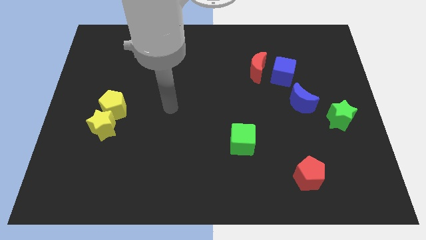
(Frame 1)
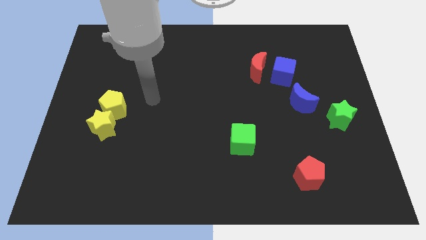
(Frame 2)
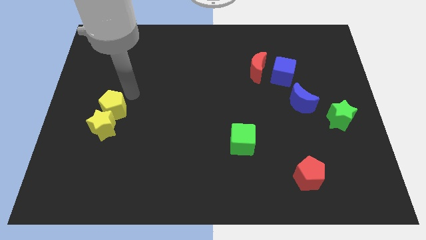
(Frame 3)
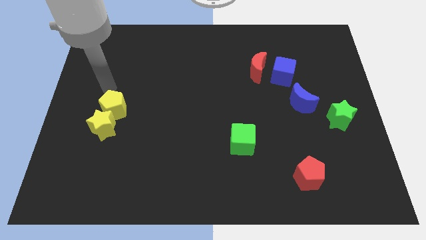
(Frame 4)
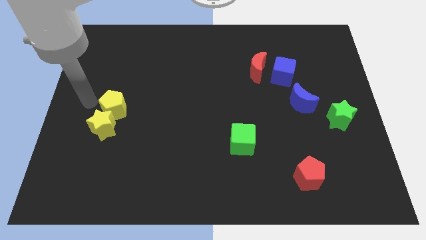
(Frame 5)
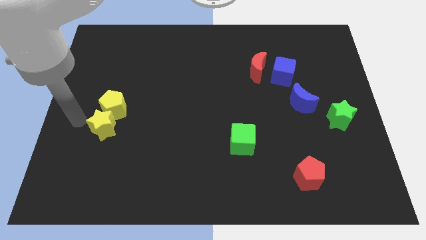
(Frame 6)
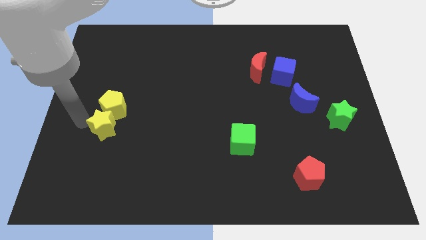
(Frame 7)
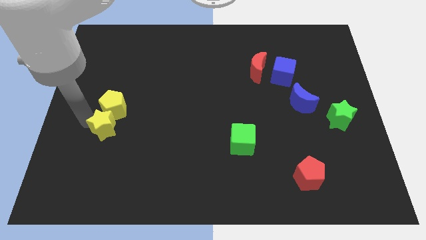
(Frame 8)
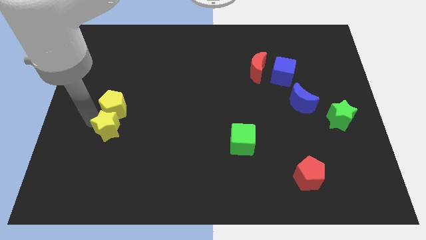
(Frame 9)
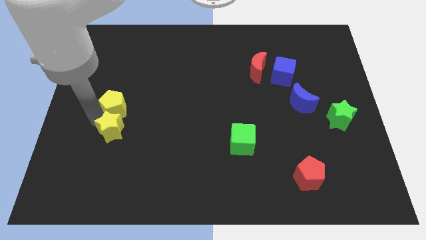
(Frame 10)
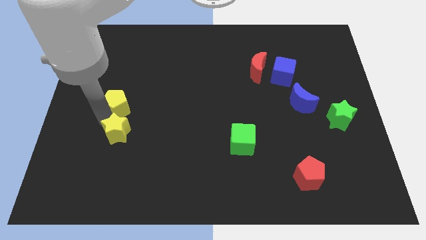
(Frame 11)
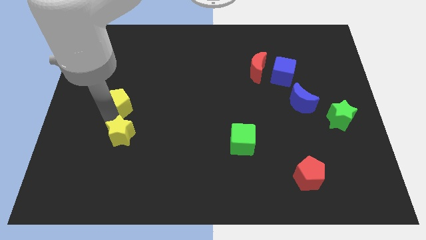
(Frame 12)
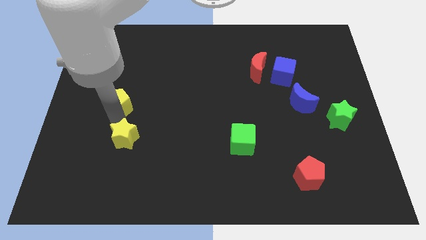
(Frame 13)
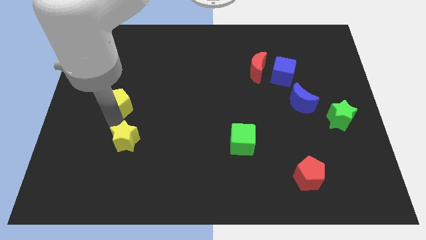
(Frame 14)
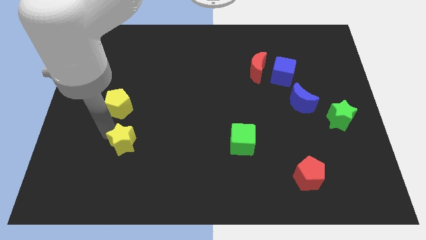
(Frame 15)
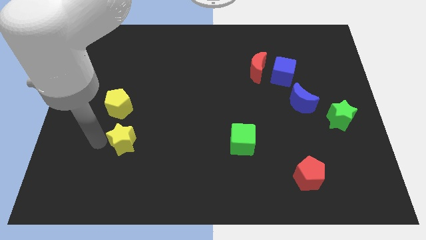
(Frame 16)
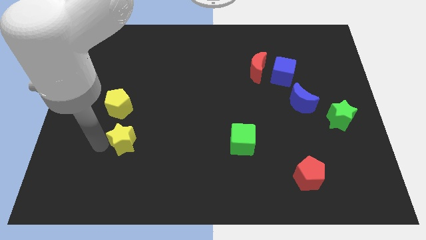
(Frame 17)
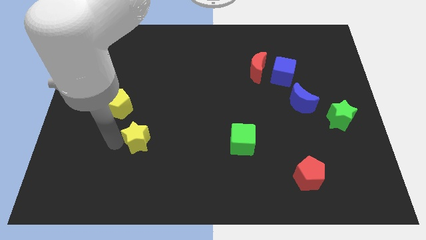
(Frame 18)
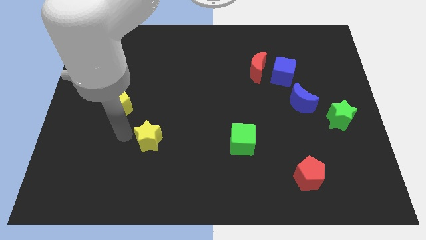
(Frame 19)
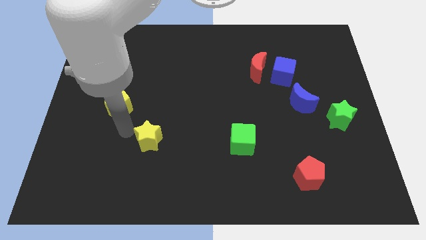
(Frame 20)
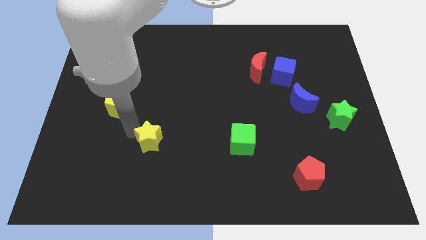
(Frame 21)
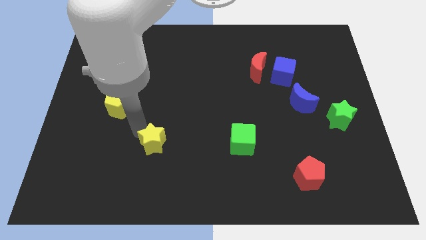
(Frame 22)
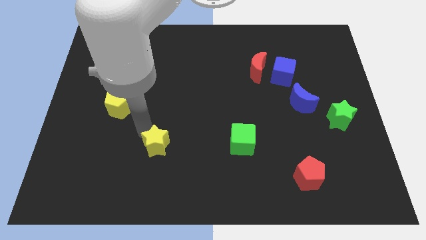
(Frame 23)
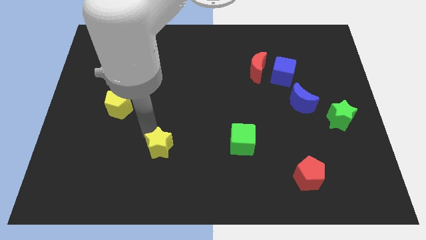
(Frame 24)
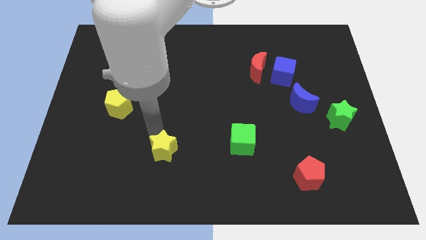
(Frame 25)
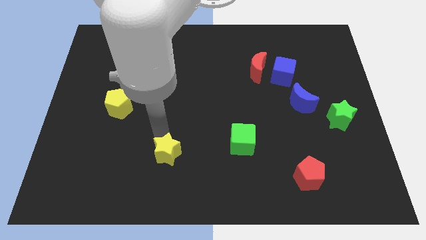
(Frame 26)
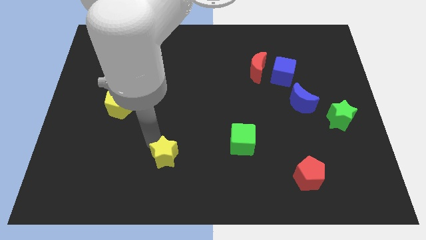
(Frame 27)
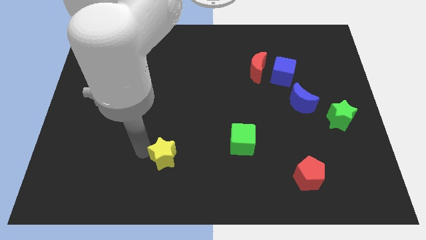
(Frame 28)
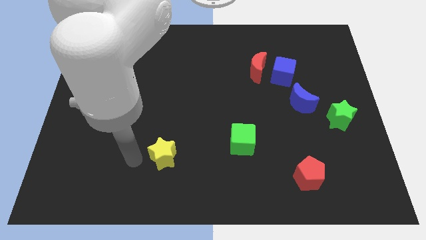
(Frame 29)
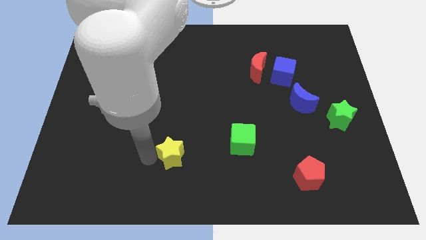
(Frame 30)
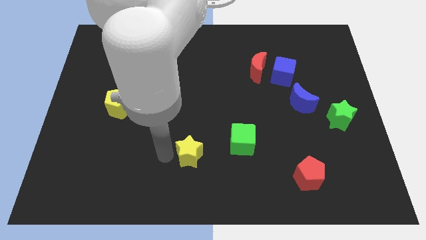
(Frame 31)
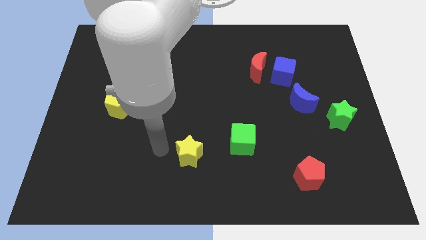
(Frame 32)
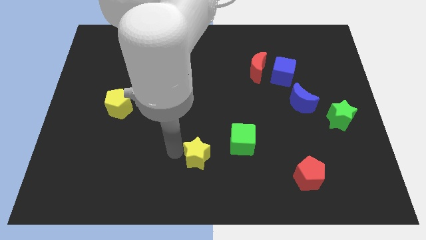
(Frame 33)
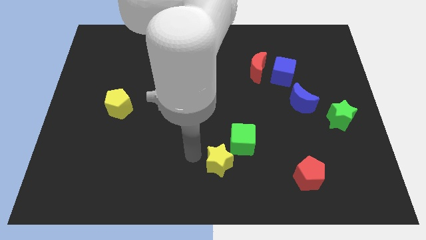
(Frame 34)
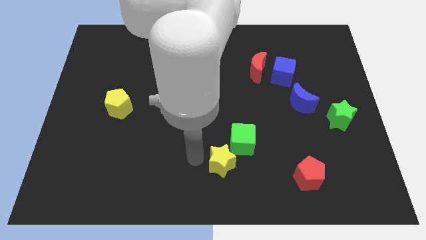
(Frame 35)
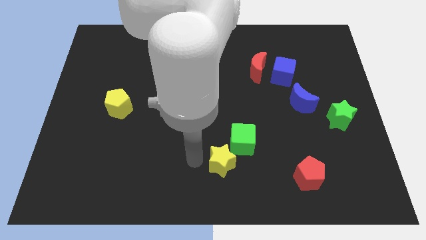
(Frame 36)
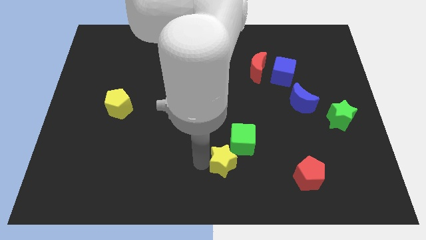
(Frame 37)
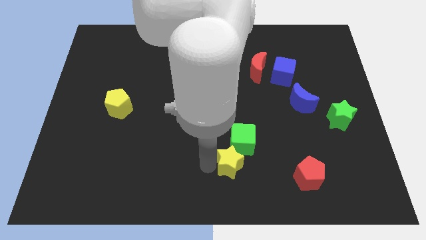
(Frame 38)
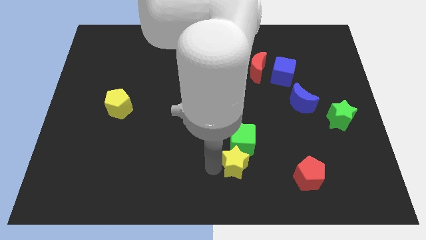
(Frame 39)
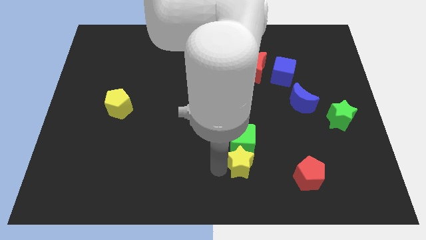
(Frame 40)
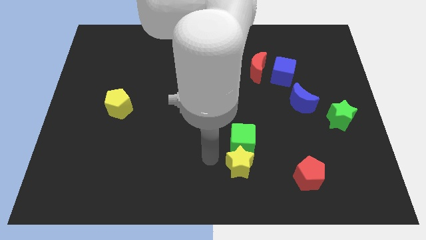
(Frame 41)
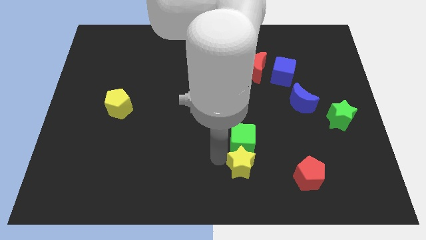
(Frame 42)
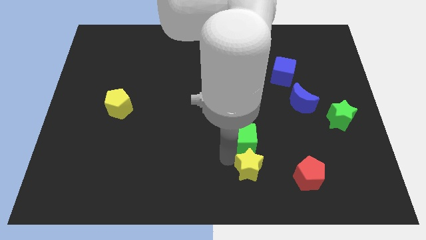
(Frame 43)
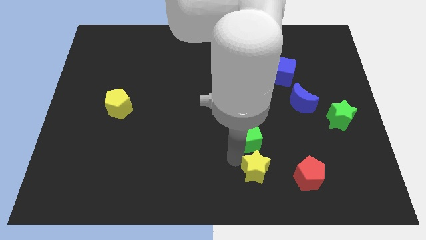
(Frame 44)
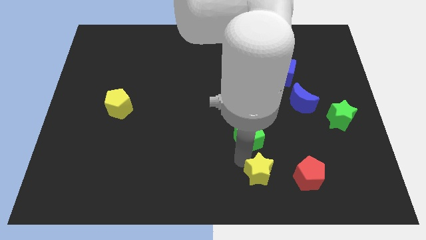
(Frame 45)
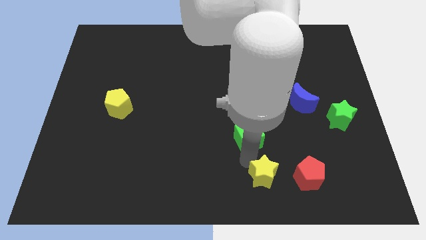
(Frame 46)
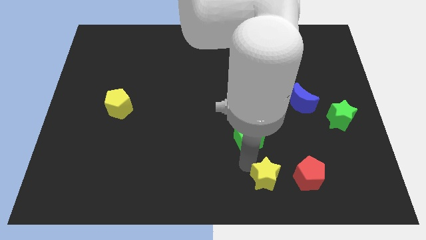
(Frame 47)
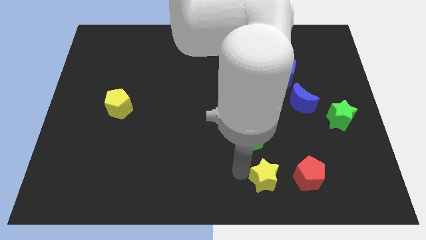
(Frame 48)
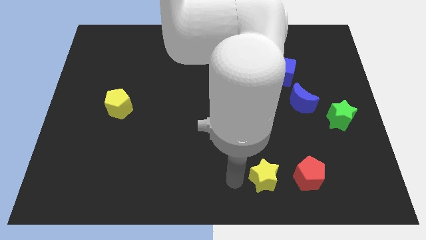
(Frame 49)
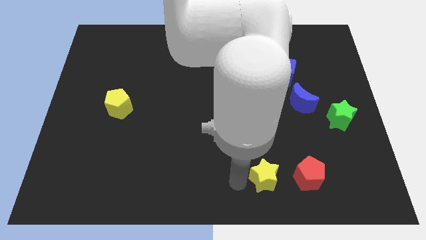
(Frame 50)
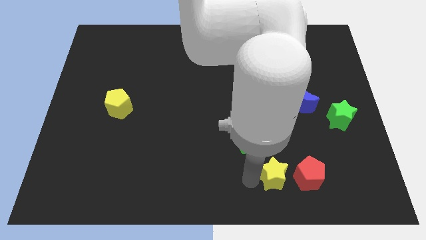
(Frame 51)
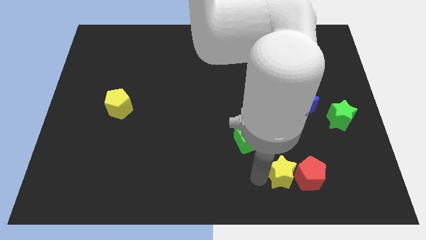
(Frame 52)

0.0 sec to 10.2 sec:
slide the yellow star towards the red pentagon
